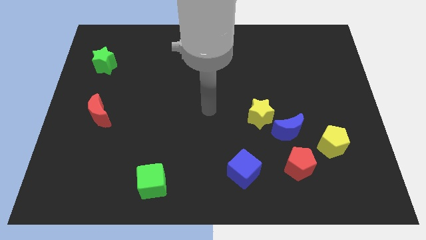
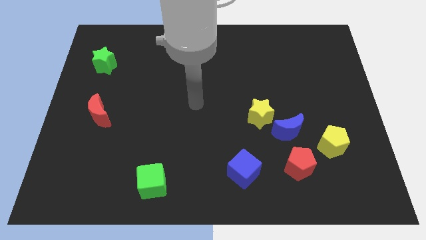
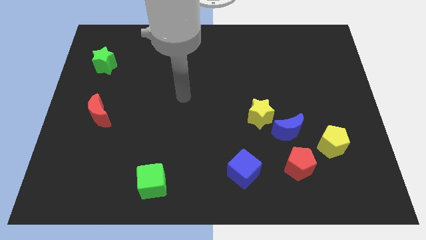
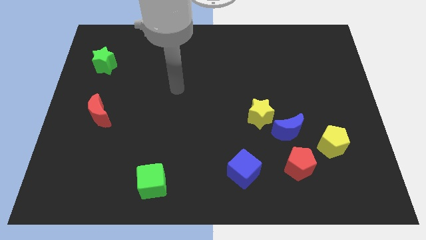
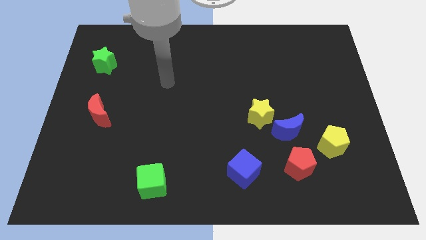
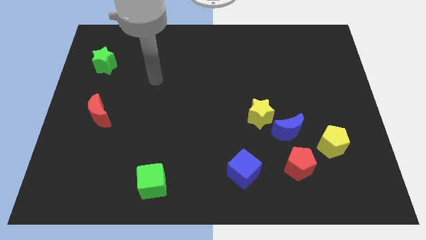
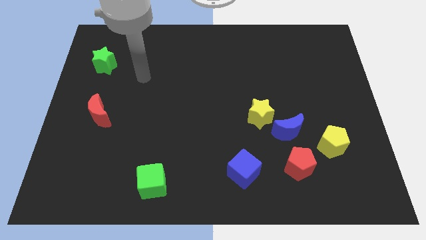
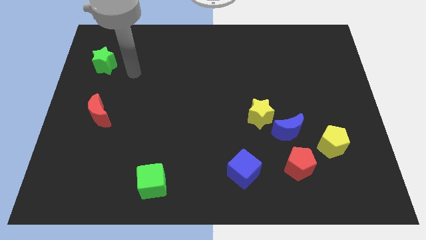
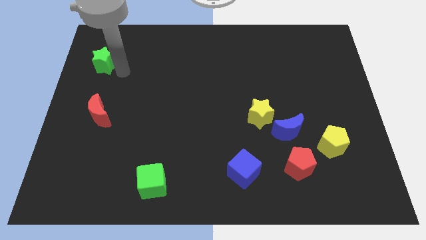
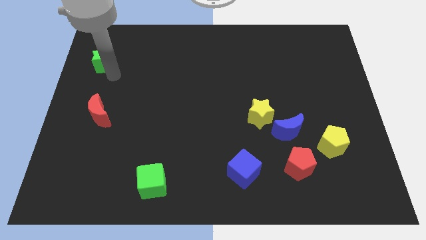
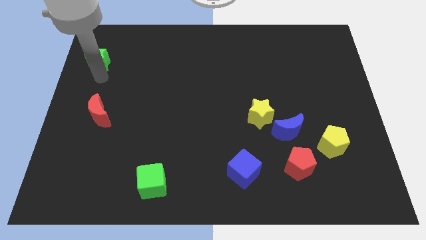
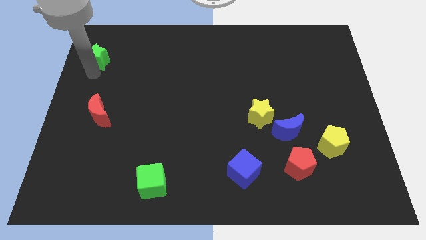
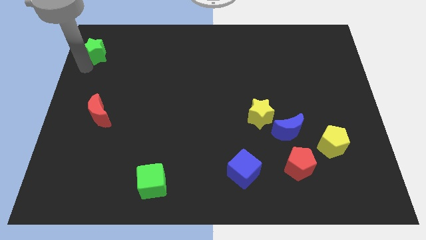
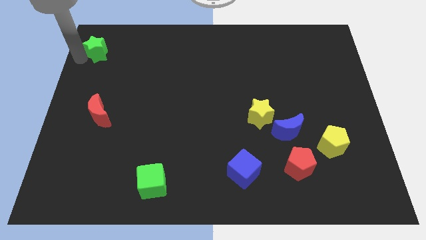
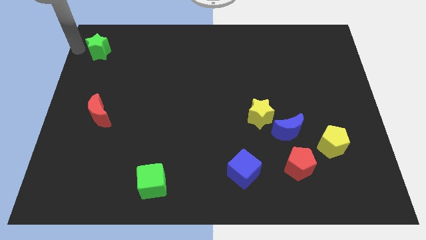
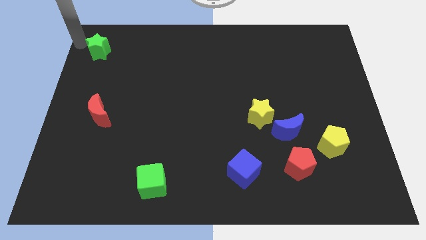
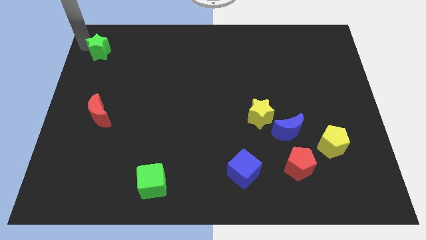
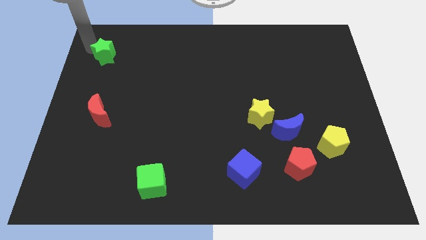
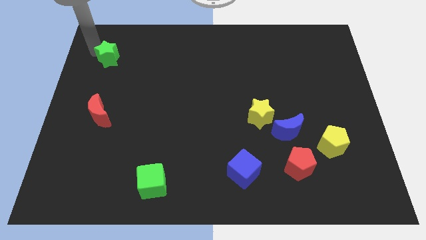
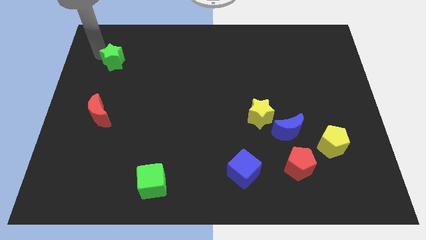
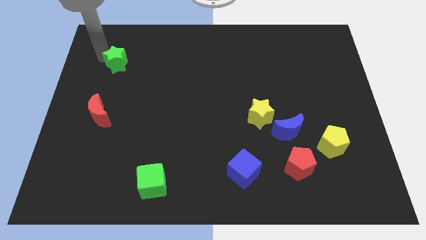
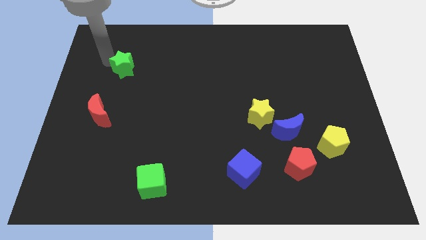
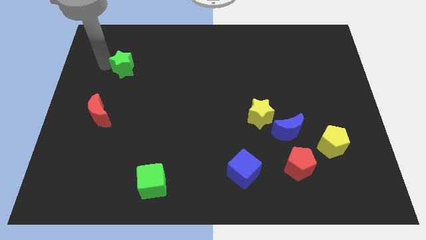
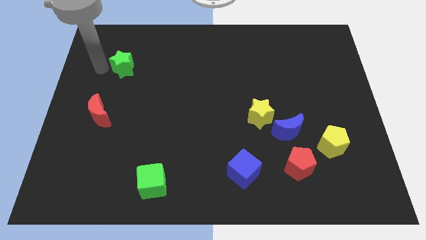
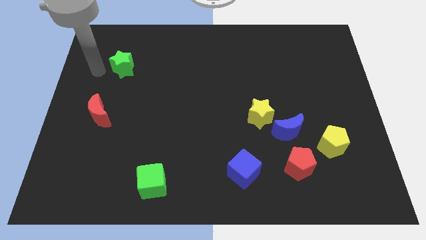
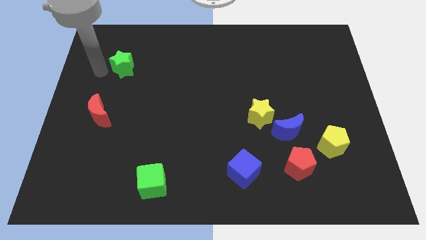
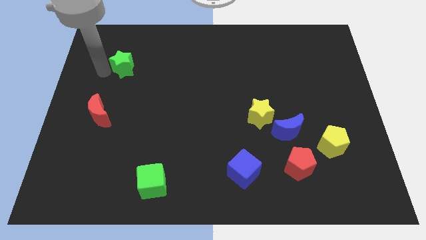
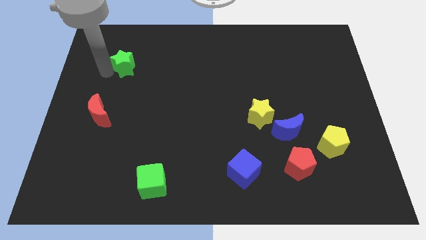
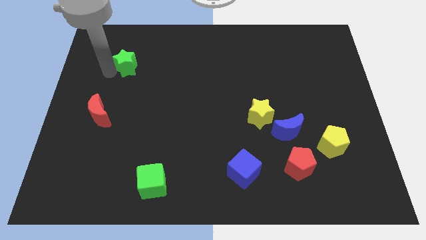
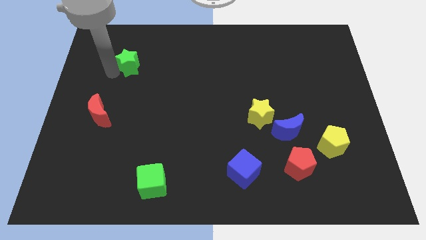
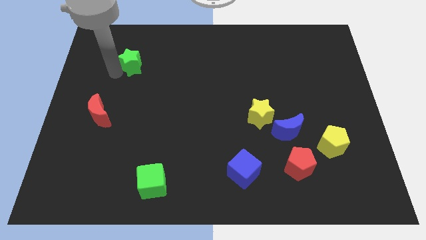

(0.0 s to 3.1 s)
move the green star right a little

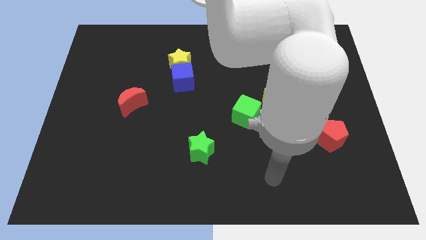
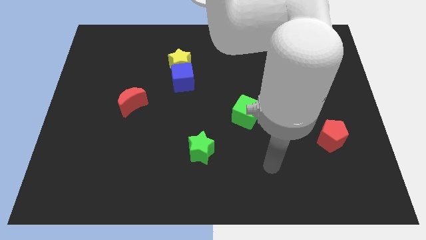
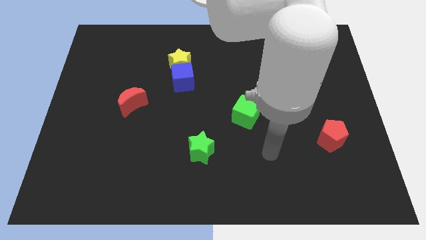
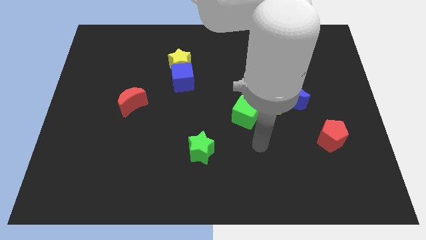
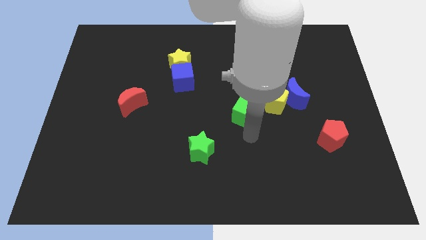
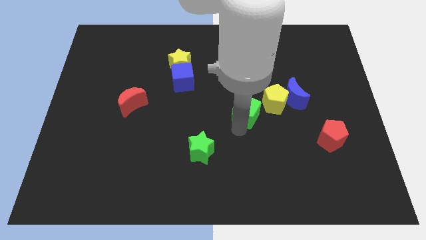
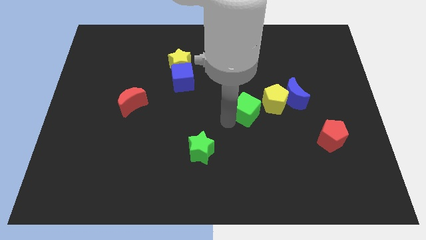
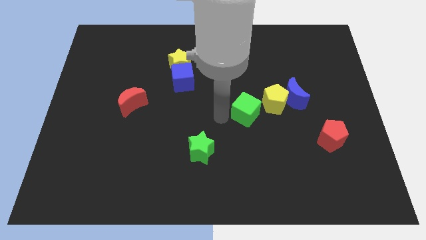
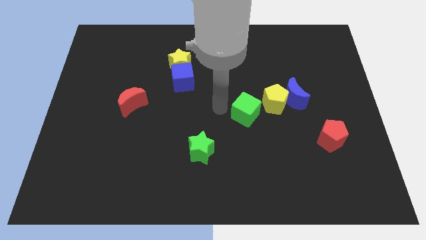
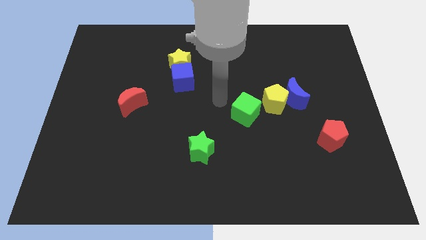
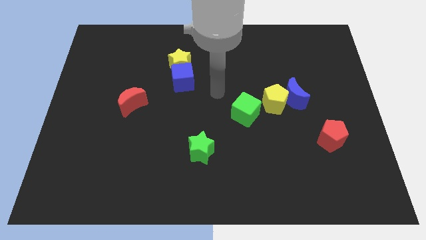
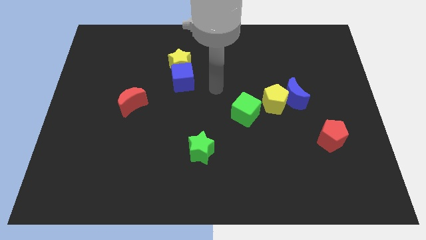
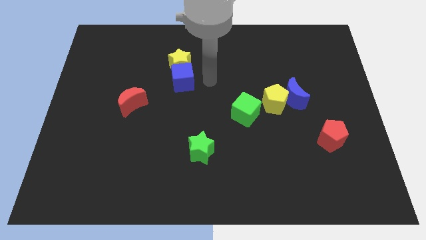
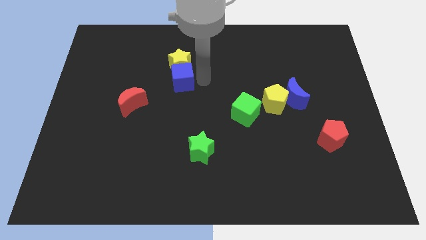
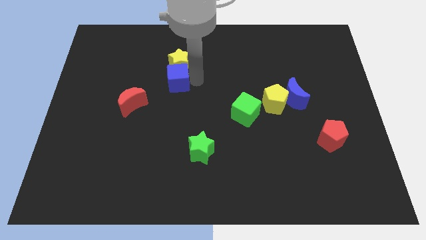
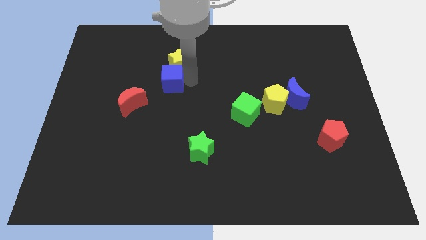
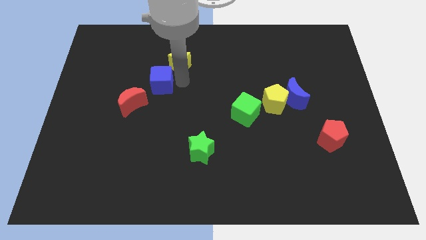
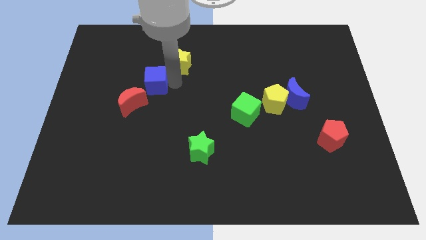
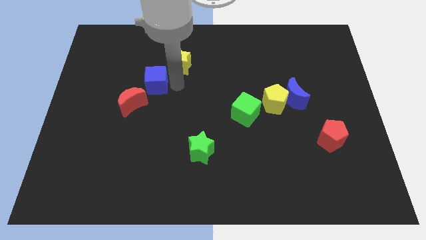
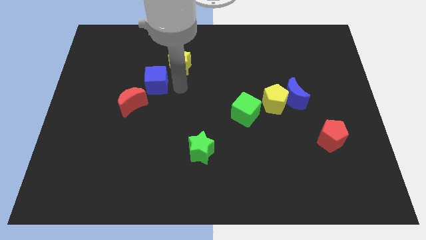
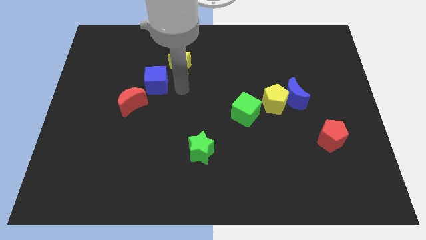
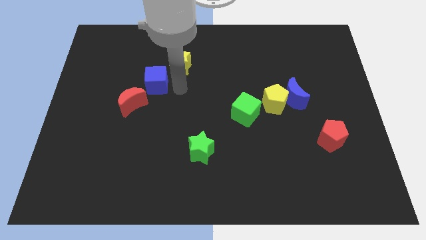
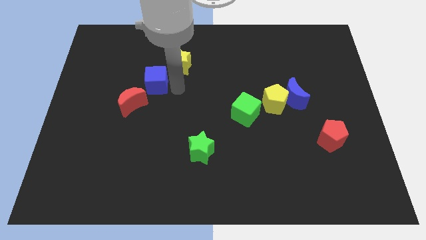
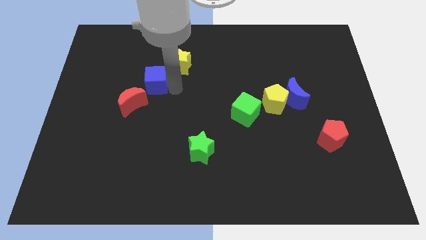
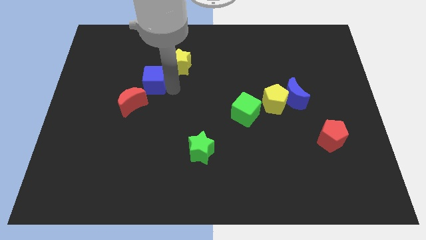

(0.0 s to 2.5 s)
move the blue cube slightly to the left

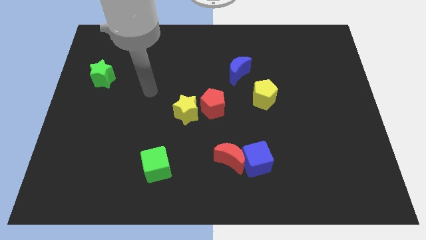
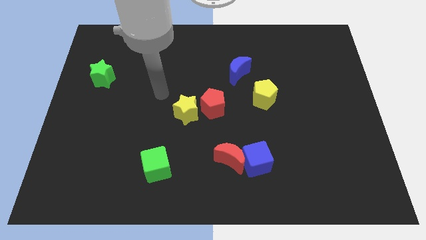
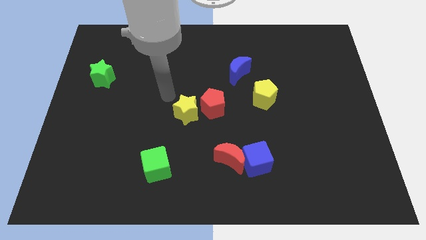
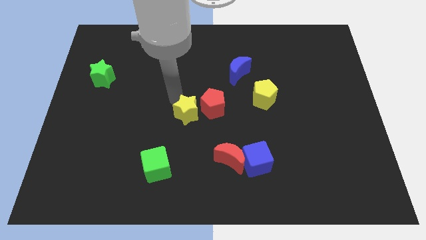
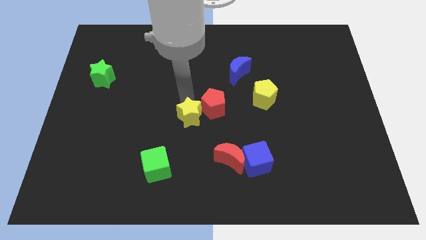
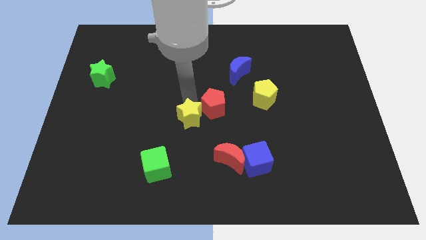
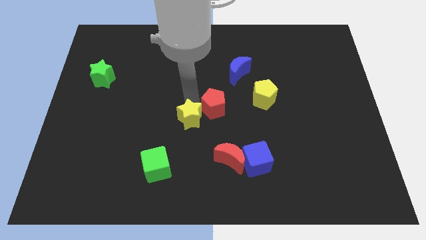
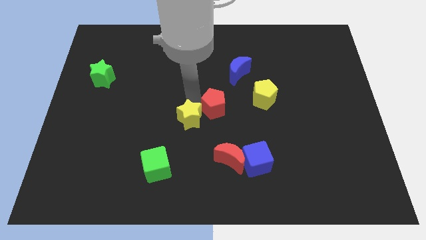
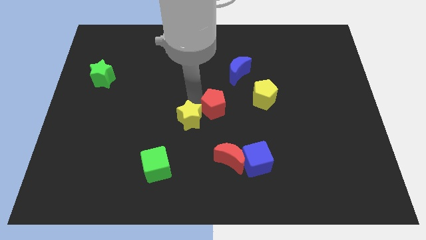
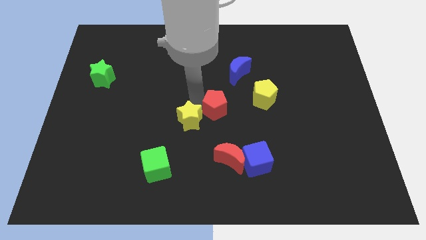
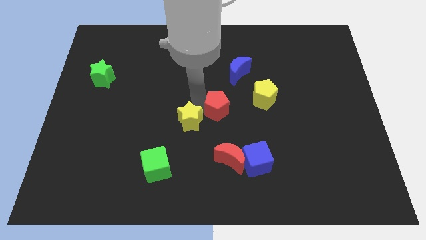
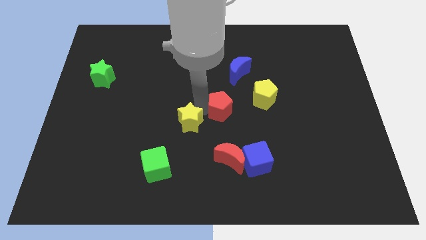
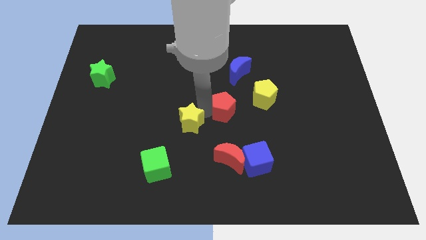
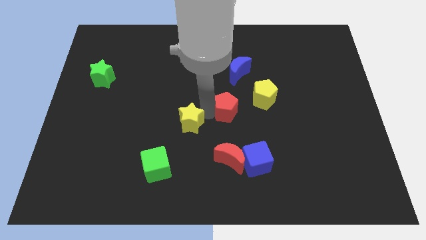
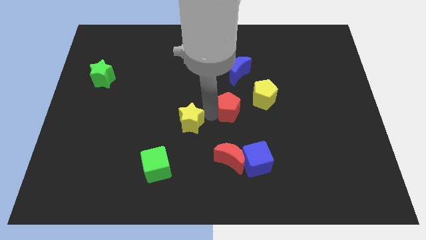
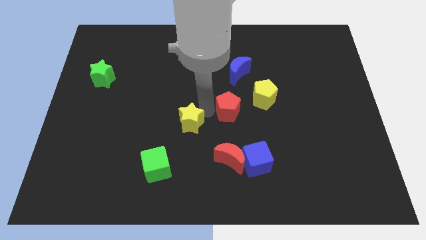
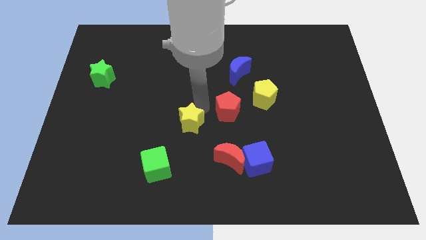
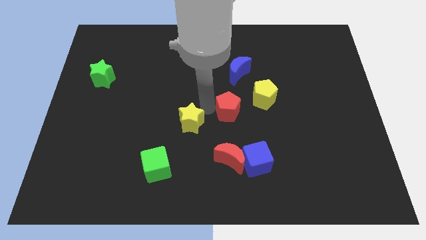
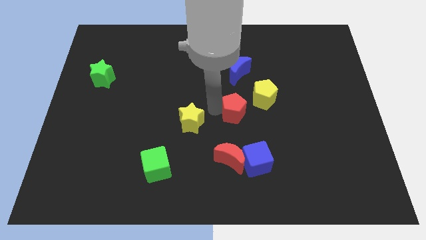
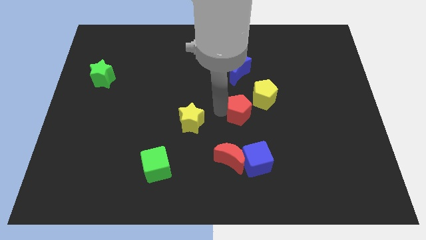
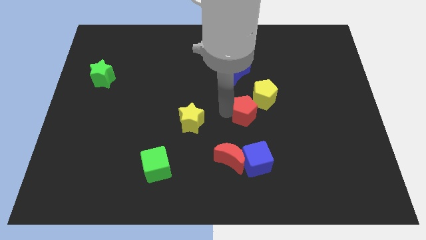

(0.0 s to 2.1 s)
push the red pentagon slightly to the right

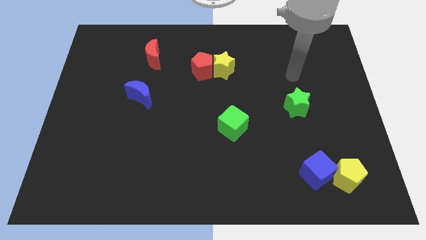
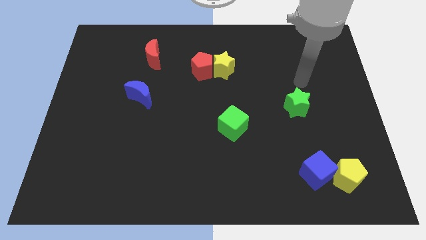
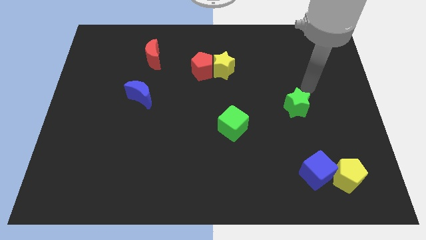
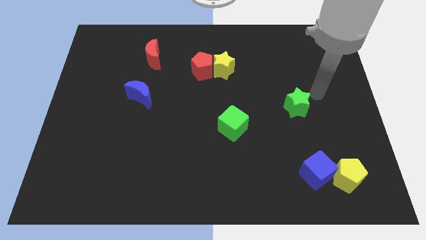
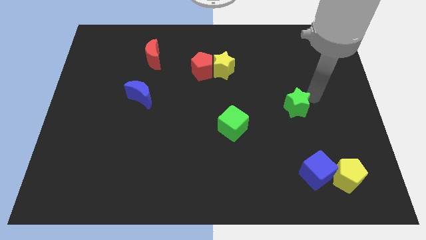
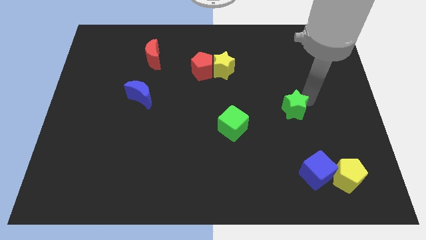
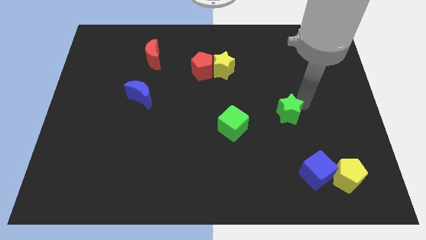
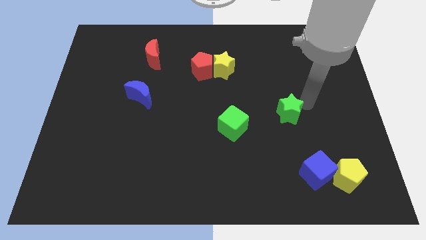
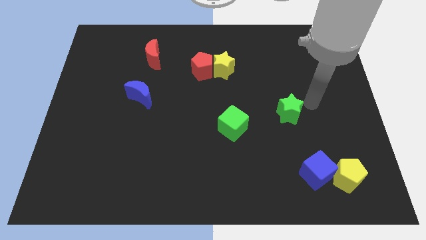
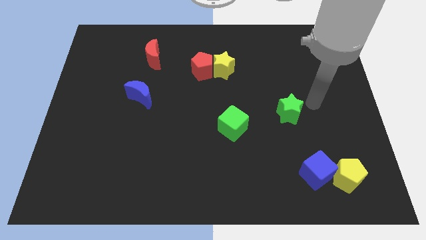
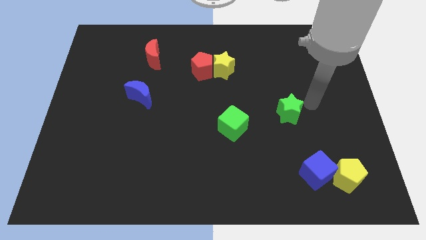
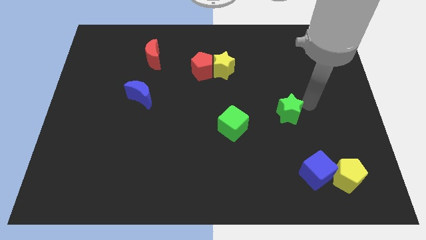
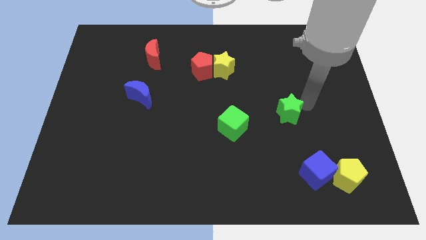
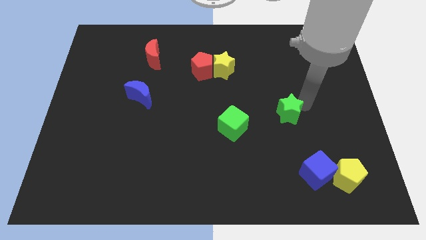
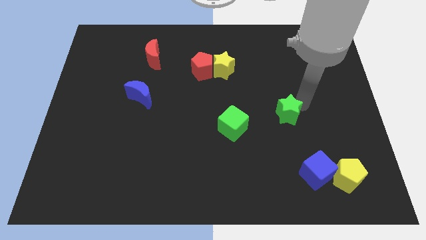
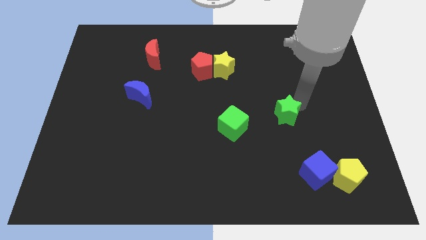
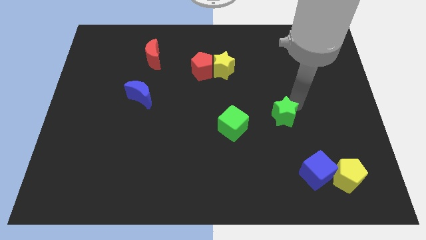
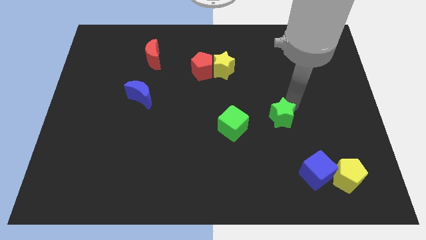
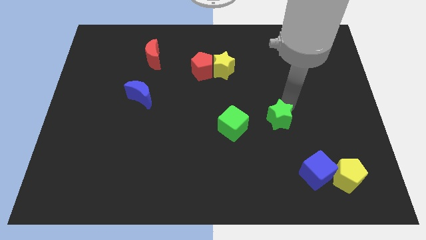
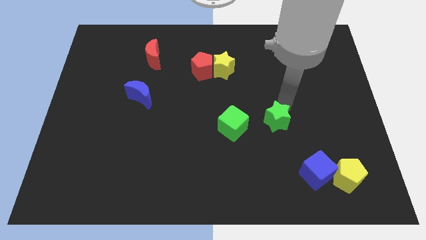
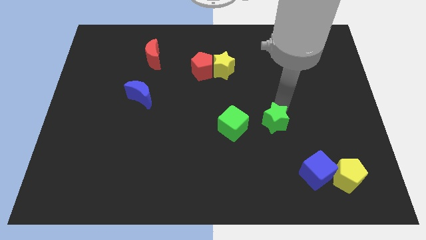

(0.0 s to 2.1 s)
push the green star diagonally downwards and left slightly
